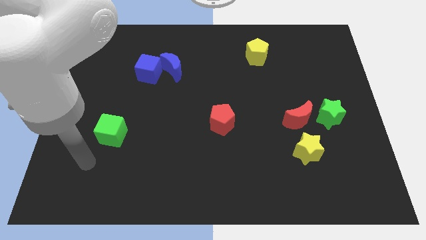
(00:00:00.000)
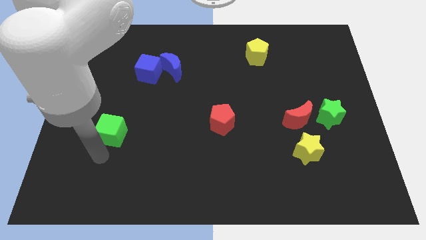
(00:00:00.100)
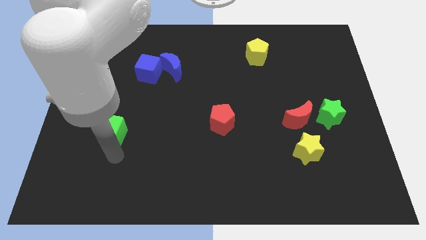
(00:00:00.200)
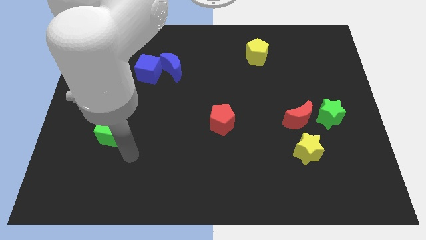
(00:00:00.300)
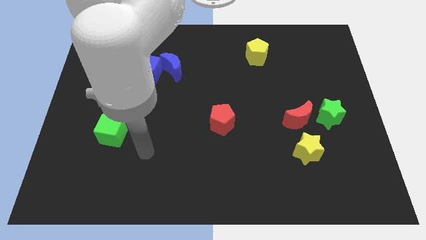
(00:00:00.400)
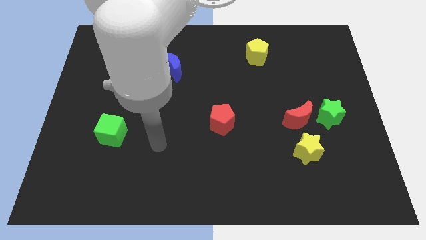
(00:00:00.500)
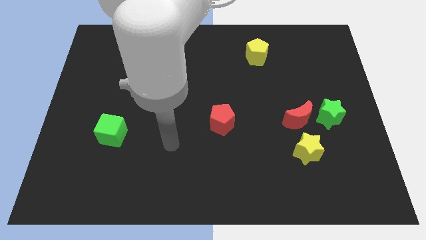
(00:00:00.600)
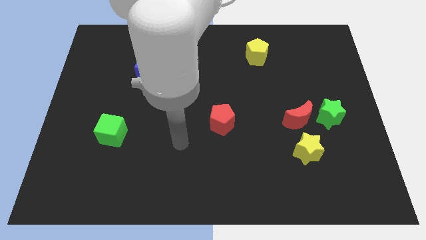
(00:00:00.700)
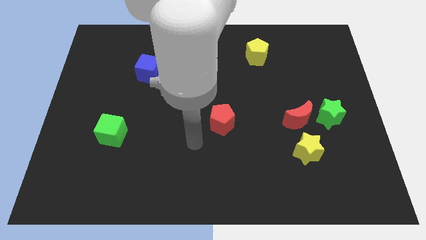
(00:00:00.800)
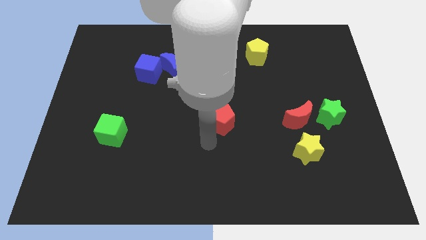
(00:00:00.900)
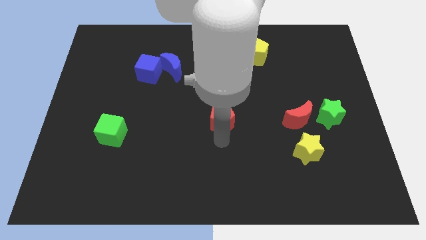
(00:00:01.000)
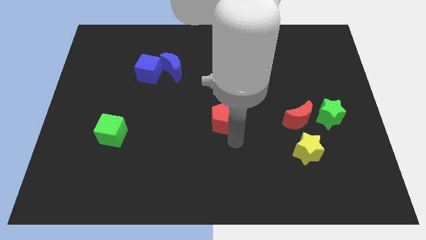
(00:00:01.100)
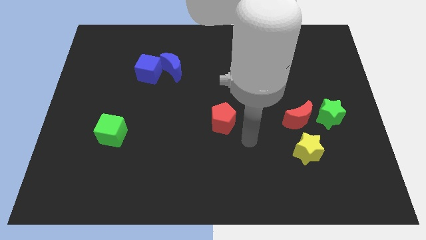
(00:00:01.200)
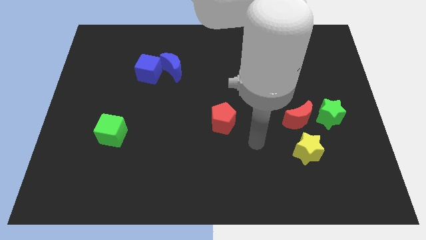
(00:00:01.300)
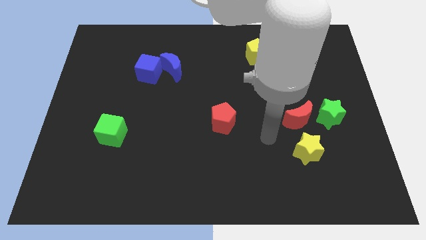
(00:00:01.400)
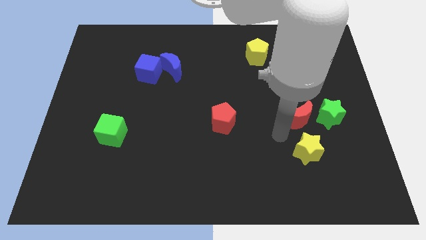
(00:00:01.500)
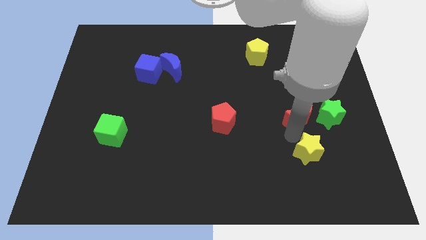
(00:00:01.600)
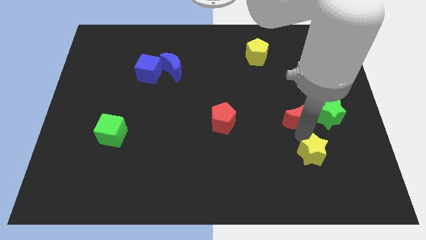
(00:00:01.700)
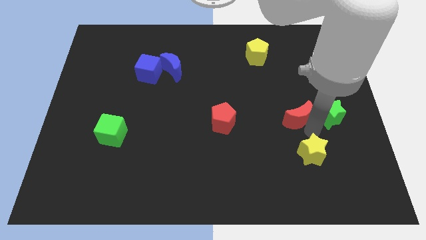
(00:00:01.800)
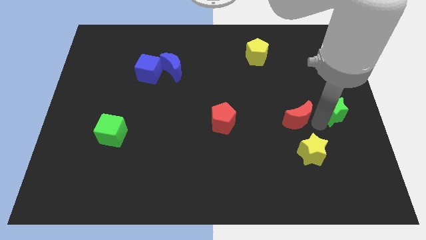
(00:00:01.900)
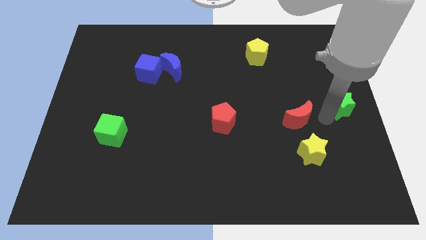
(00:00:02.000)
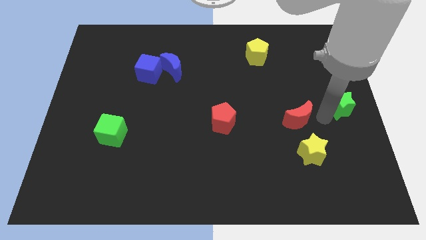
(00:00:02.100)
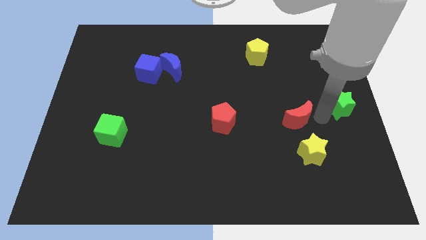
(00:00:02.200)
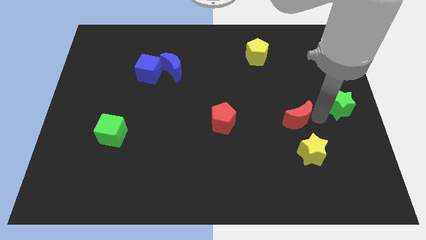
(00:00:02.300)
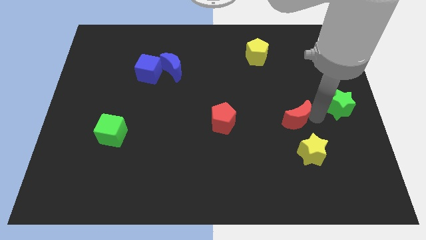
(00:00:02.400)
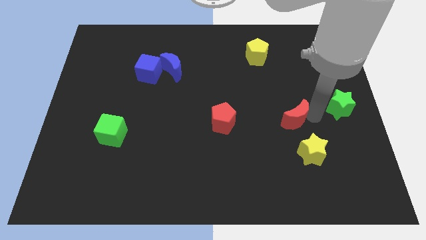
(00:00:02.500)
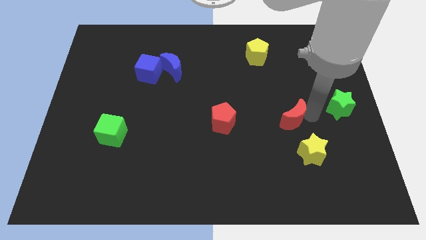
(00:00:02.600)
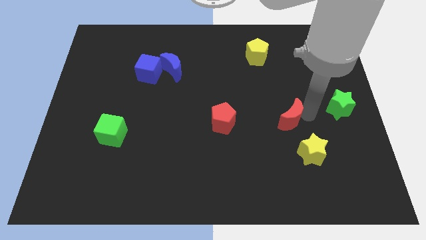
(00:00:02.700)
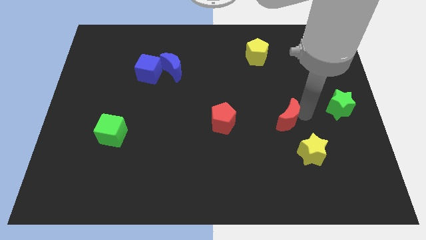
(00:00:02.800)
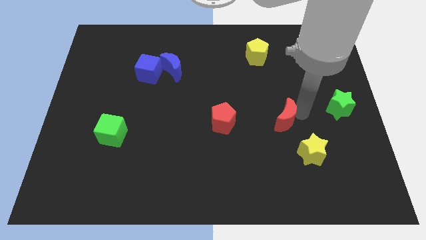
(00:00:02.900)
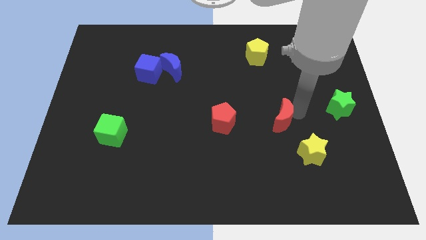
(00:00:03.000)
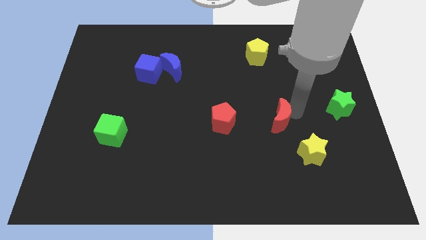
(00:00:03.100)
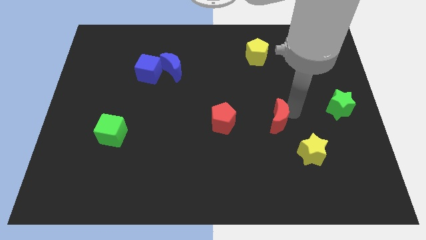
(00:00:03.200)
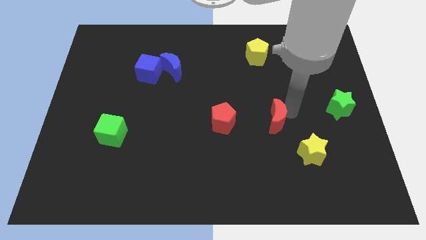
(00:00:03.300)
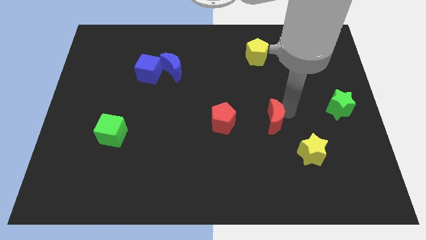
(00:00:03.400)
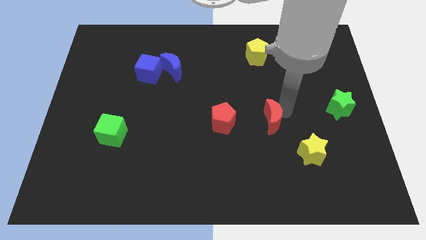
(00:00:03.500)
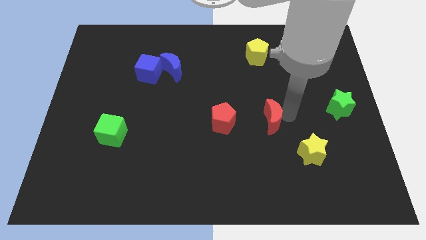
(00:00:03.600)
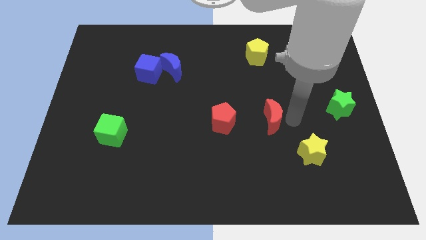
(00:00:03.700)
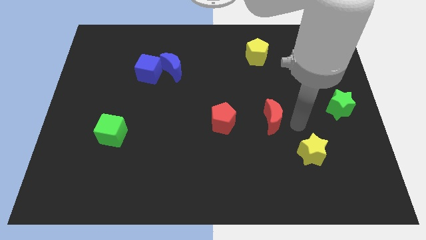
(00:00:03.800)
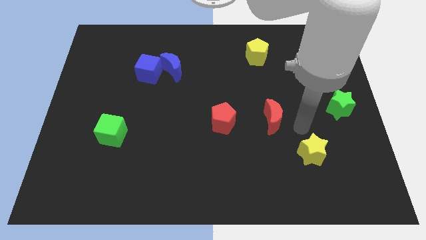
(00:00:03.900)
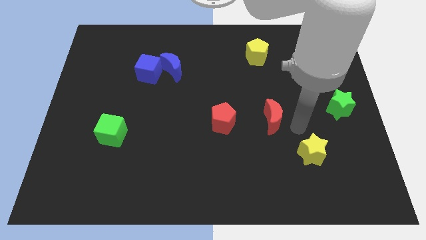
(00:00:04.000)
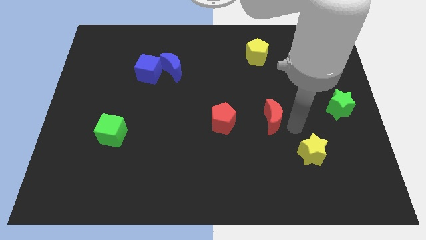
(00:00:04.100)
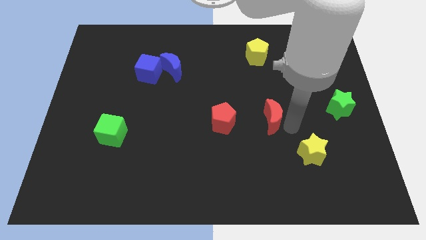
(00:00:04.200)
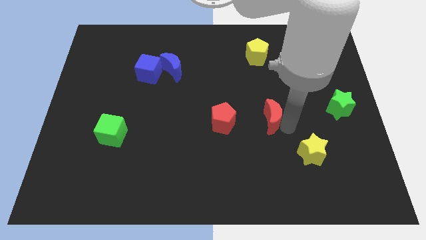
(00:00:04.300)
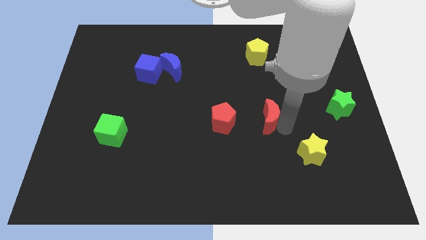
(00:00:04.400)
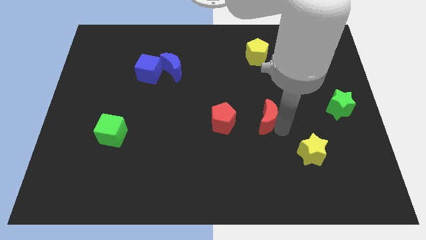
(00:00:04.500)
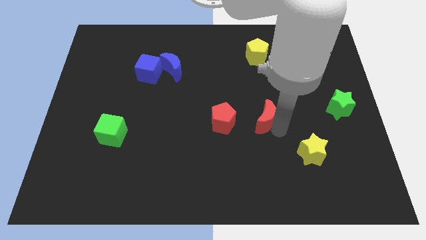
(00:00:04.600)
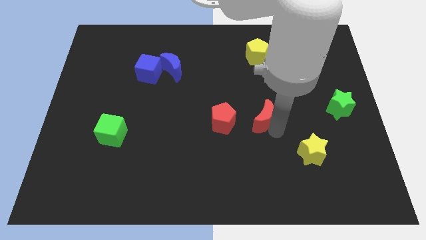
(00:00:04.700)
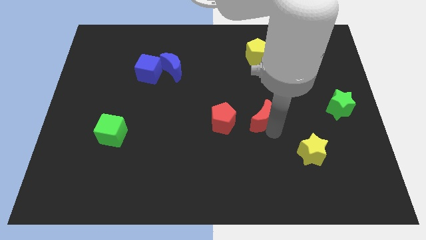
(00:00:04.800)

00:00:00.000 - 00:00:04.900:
push the red moon to the middle of the board

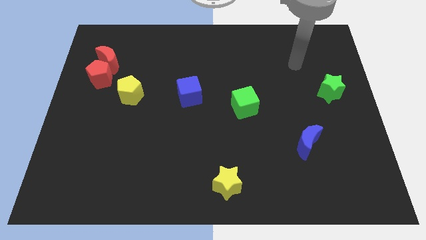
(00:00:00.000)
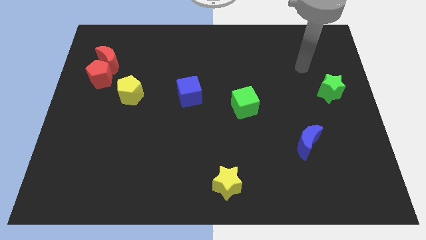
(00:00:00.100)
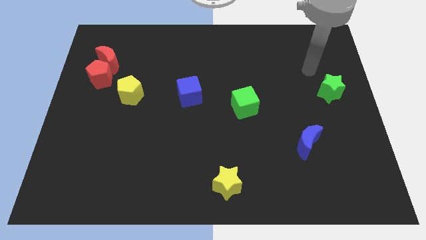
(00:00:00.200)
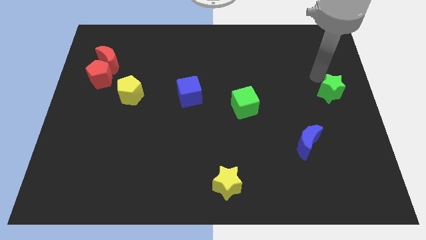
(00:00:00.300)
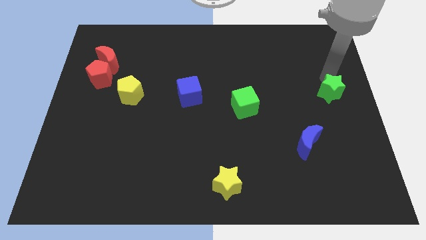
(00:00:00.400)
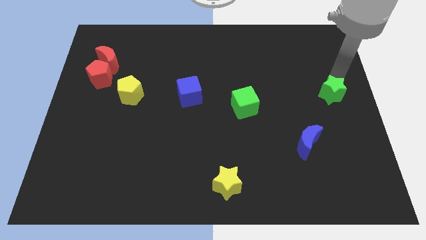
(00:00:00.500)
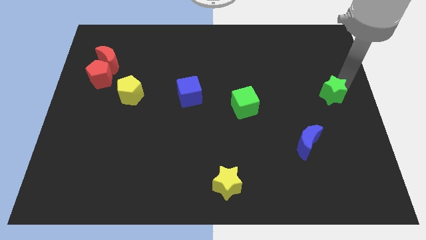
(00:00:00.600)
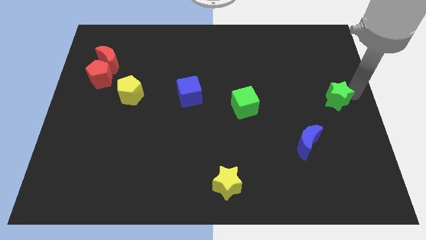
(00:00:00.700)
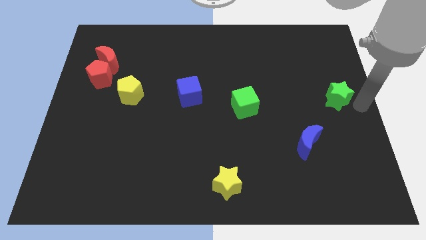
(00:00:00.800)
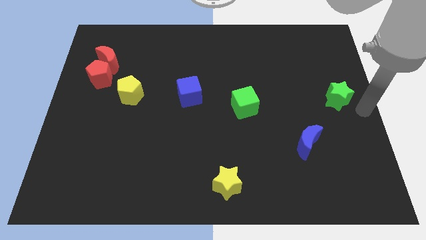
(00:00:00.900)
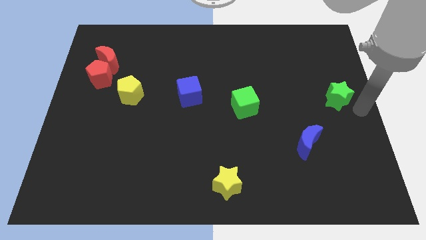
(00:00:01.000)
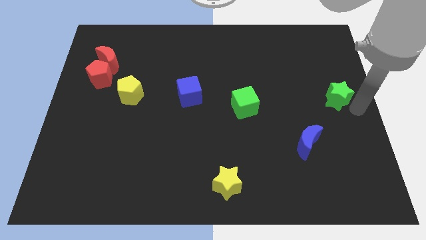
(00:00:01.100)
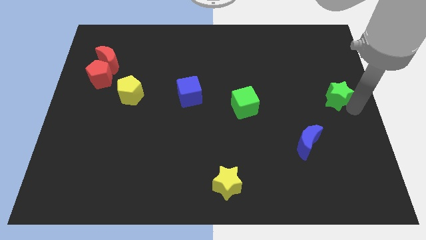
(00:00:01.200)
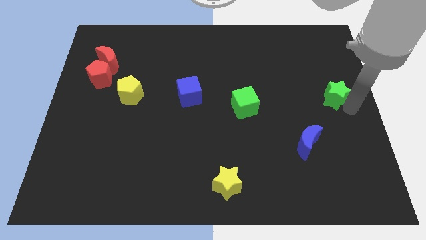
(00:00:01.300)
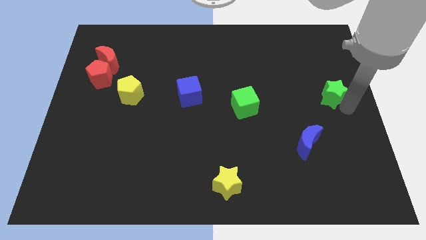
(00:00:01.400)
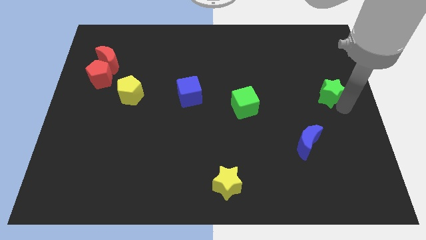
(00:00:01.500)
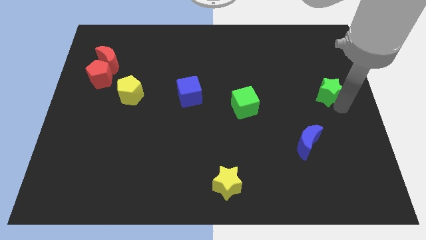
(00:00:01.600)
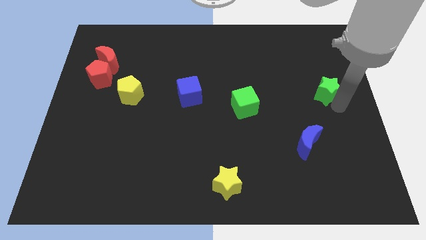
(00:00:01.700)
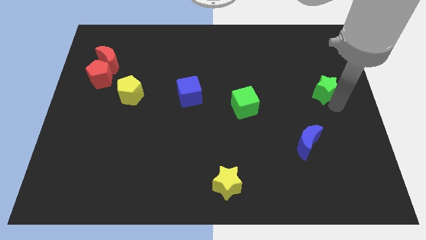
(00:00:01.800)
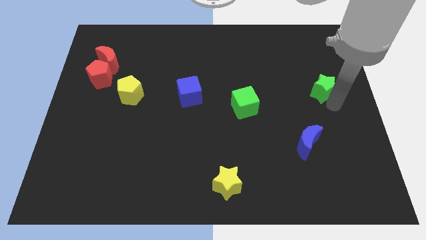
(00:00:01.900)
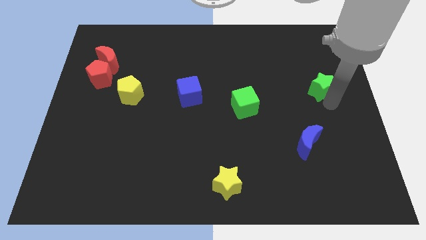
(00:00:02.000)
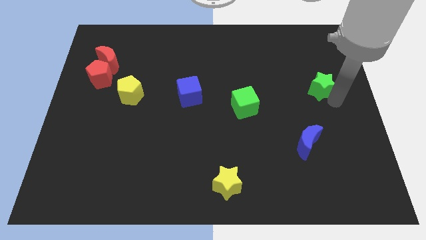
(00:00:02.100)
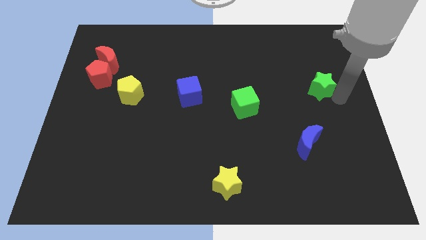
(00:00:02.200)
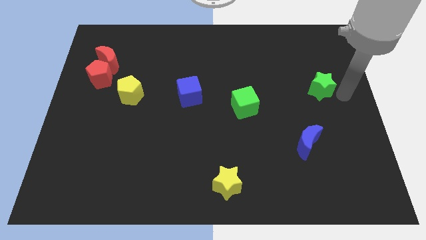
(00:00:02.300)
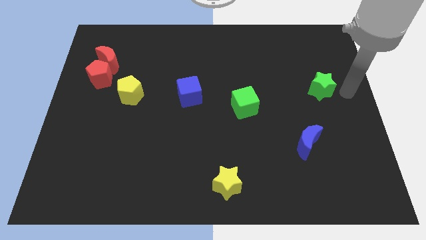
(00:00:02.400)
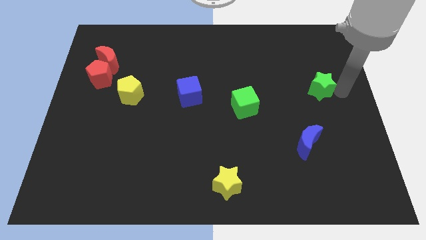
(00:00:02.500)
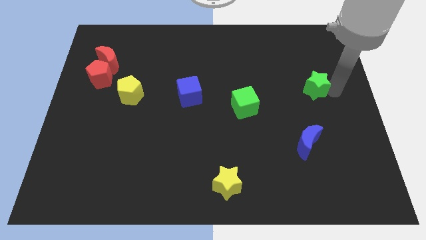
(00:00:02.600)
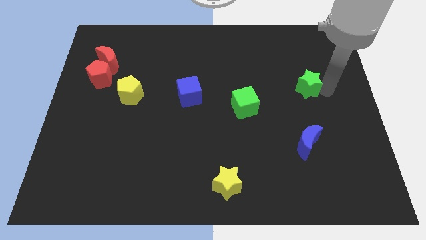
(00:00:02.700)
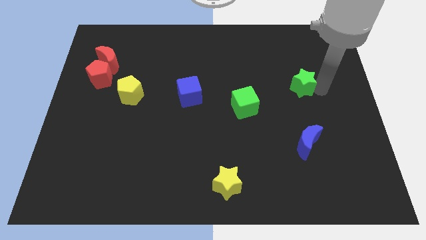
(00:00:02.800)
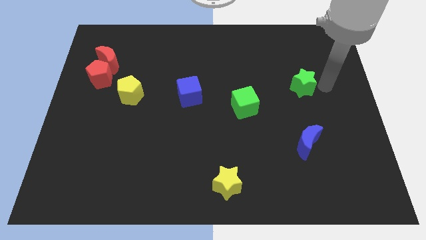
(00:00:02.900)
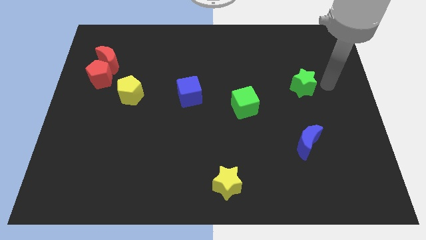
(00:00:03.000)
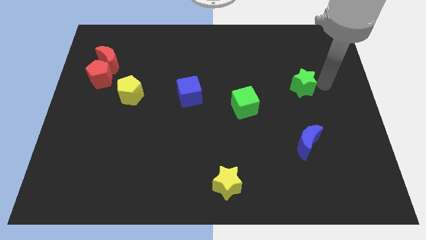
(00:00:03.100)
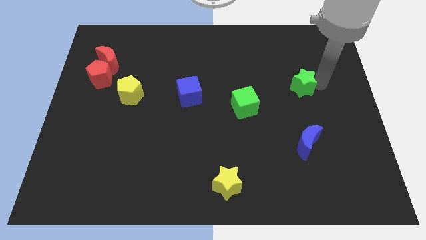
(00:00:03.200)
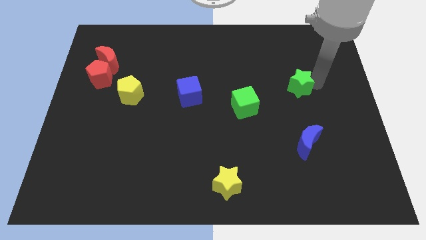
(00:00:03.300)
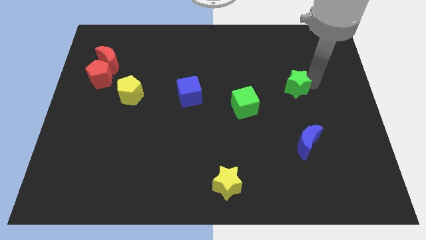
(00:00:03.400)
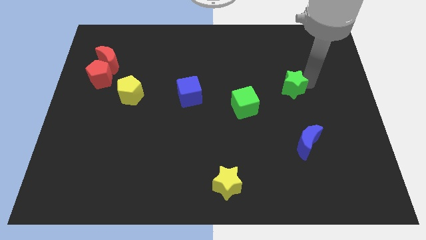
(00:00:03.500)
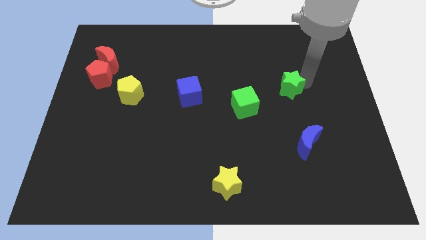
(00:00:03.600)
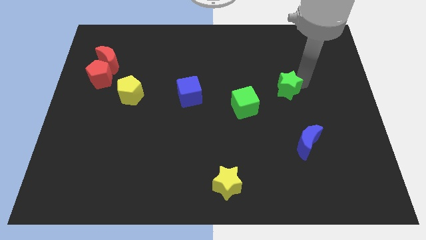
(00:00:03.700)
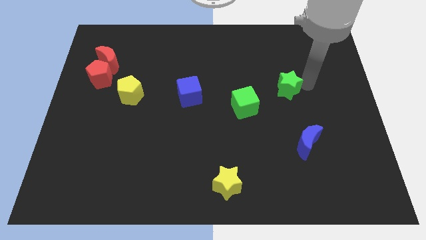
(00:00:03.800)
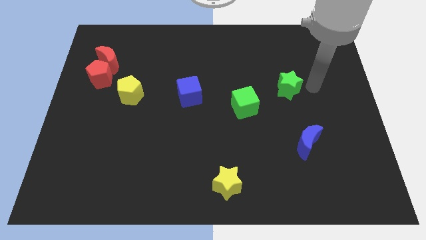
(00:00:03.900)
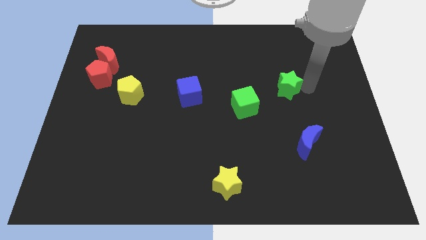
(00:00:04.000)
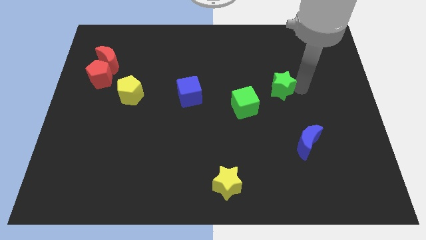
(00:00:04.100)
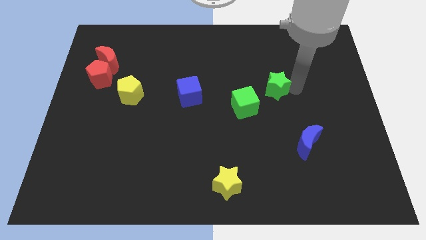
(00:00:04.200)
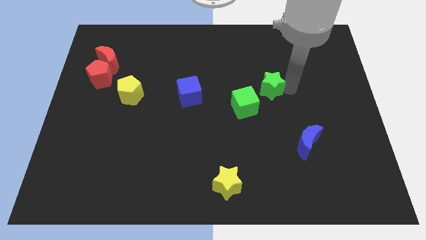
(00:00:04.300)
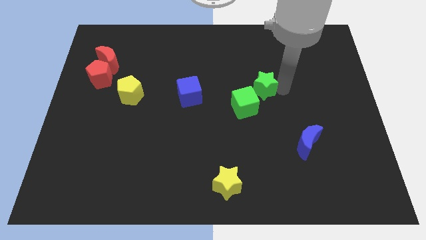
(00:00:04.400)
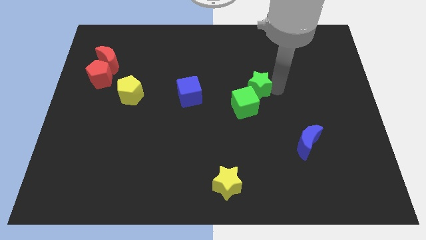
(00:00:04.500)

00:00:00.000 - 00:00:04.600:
push the green star to the middle
